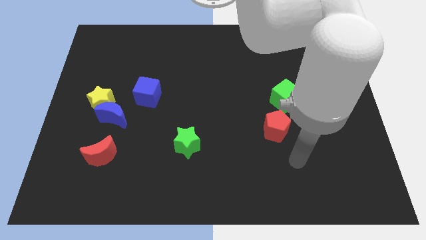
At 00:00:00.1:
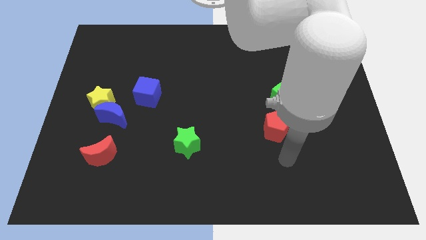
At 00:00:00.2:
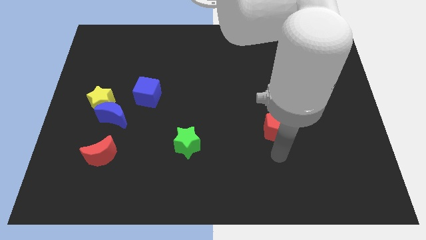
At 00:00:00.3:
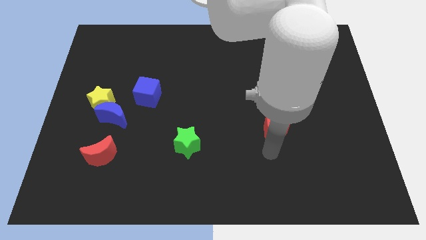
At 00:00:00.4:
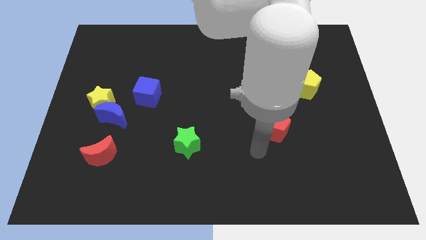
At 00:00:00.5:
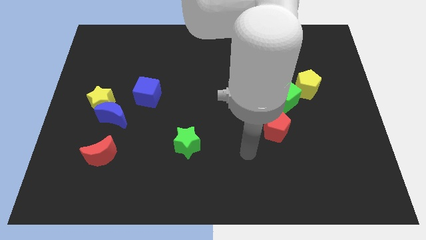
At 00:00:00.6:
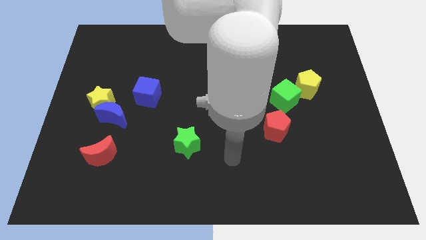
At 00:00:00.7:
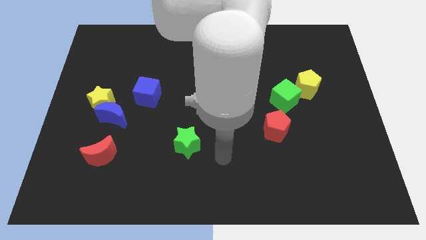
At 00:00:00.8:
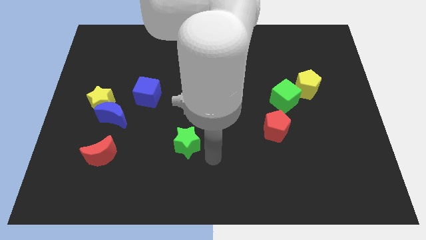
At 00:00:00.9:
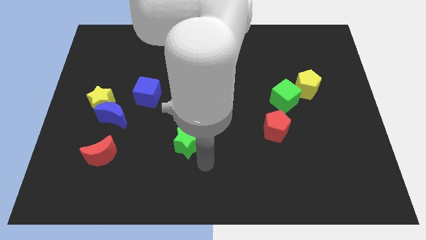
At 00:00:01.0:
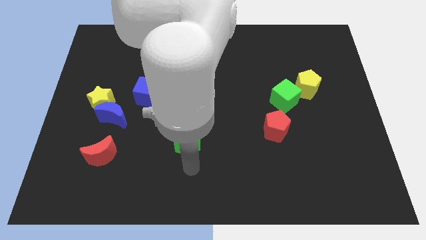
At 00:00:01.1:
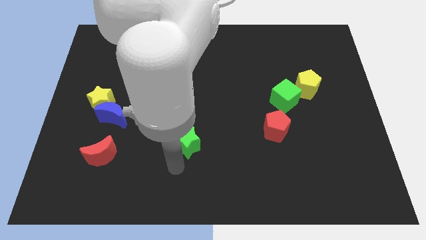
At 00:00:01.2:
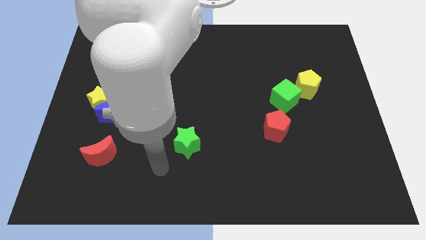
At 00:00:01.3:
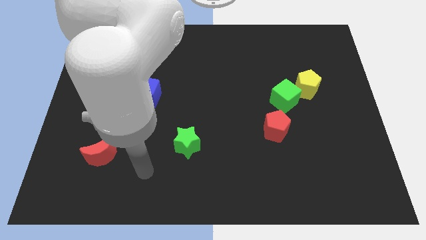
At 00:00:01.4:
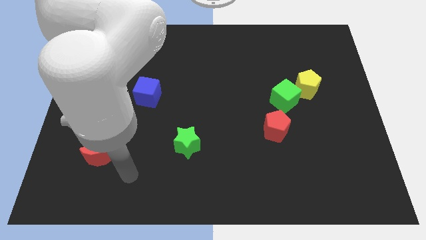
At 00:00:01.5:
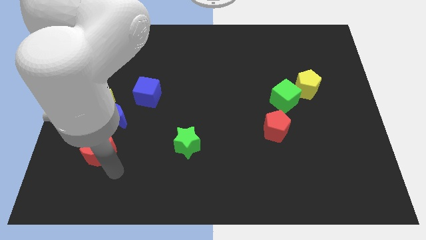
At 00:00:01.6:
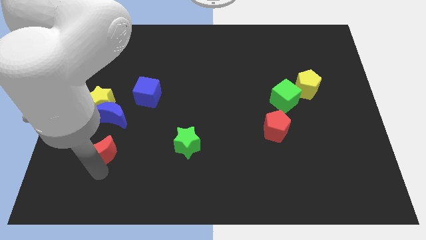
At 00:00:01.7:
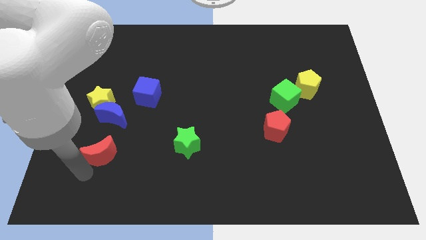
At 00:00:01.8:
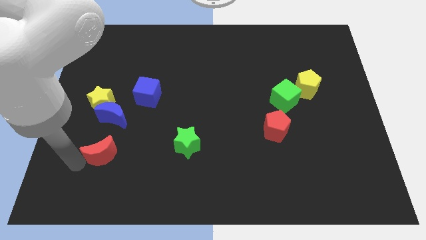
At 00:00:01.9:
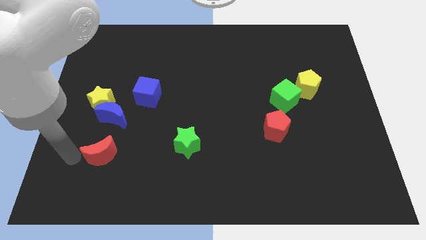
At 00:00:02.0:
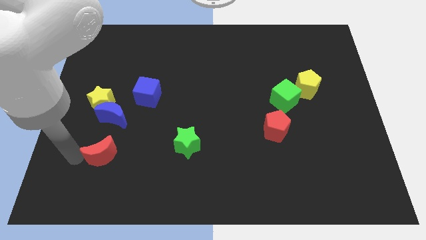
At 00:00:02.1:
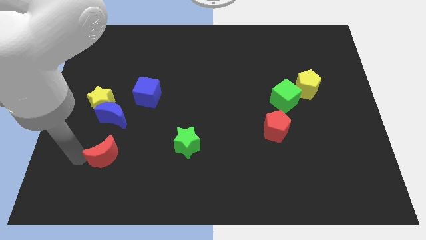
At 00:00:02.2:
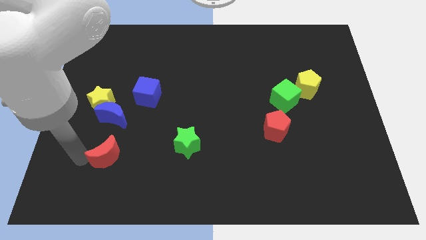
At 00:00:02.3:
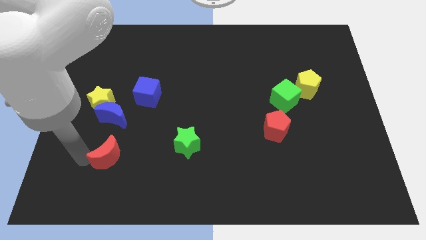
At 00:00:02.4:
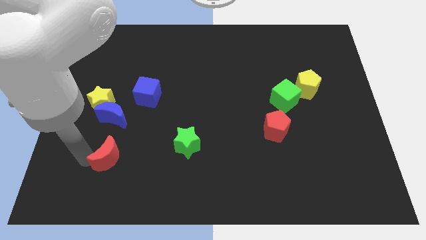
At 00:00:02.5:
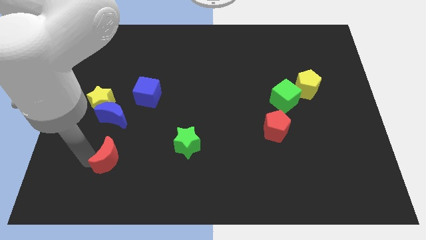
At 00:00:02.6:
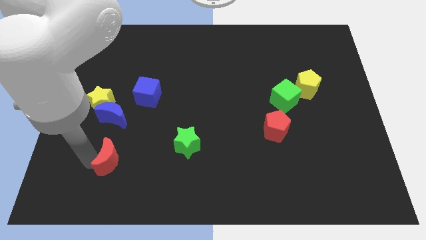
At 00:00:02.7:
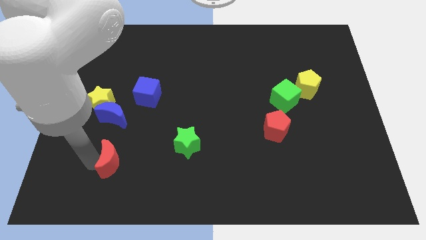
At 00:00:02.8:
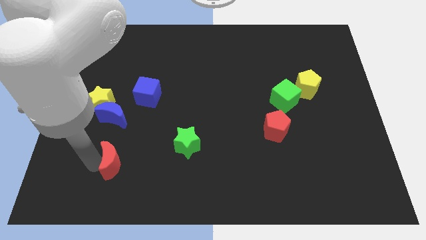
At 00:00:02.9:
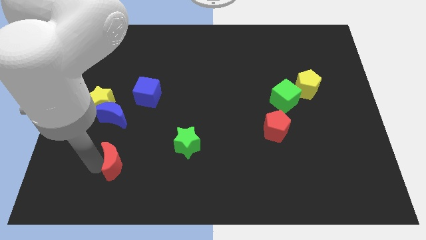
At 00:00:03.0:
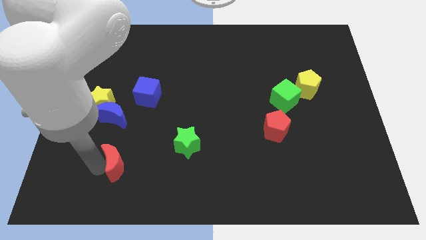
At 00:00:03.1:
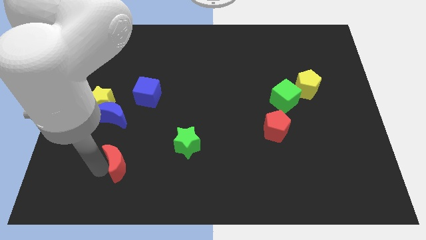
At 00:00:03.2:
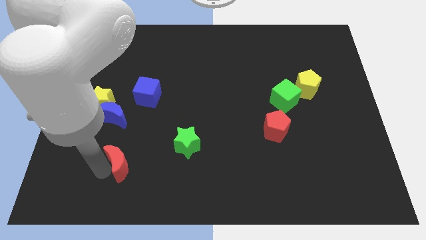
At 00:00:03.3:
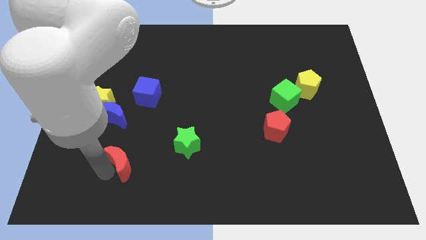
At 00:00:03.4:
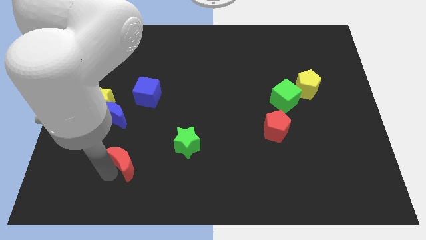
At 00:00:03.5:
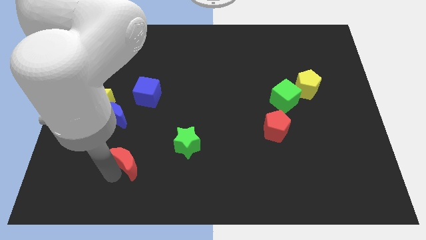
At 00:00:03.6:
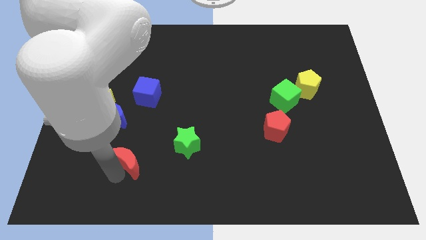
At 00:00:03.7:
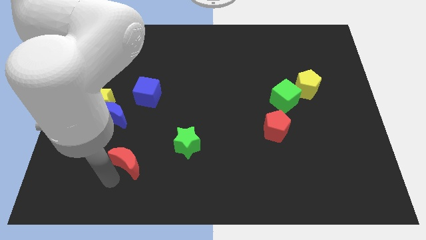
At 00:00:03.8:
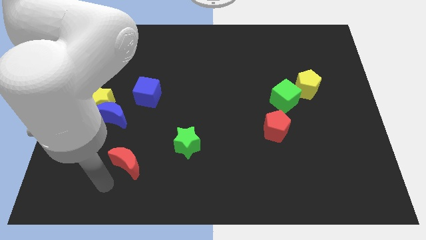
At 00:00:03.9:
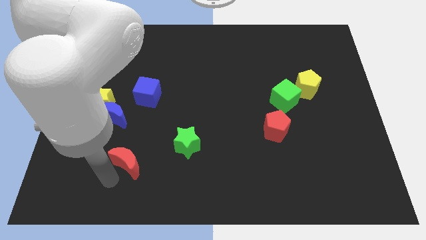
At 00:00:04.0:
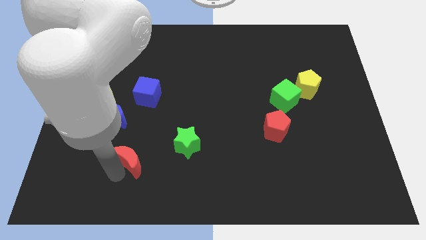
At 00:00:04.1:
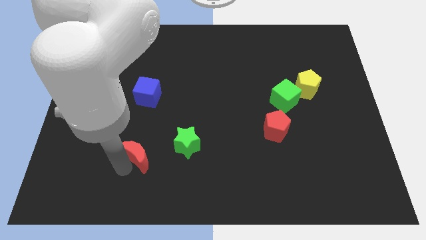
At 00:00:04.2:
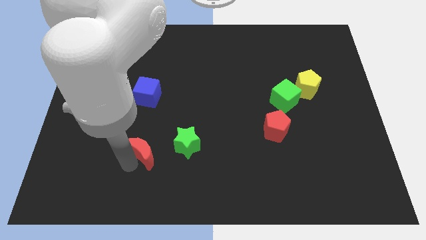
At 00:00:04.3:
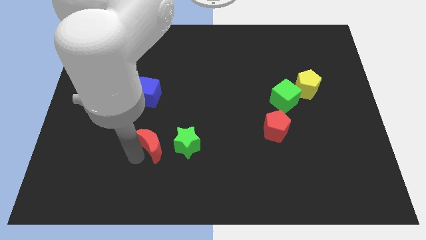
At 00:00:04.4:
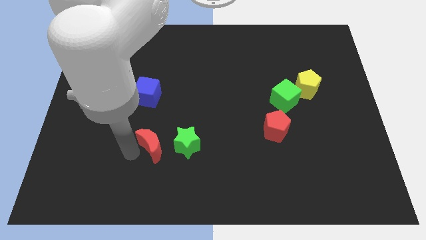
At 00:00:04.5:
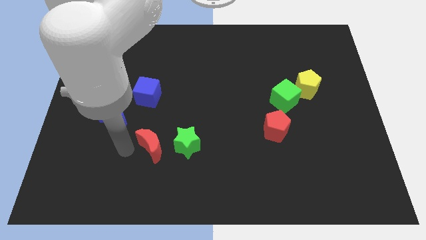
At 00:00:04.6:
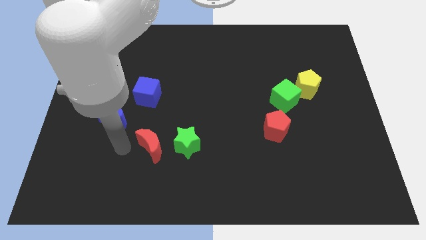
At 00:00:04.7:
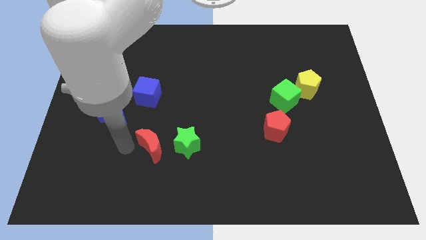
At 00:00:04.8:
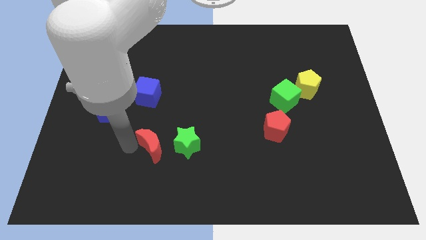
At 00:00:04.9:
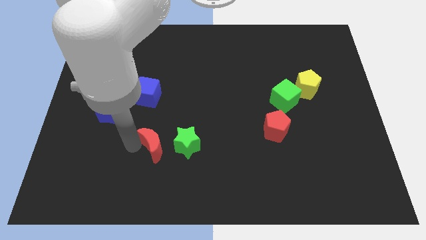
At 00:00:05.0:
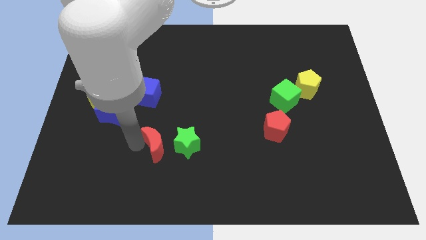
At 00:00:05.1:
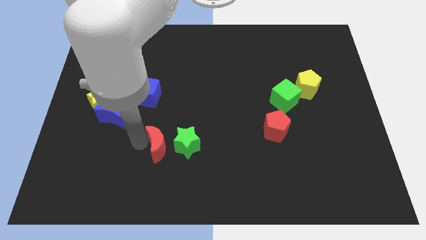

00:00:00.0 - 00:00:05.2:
slide the red moon next to the green star

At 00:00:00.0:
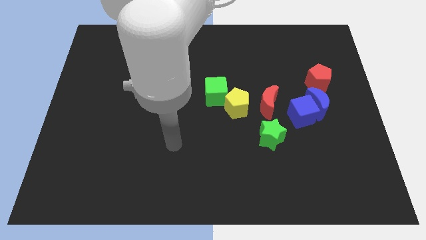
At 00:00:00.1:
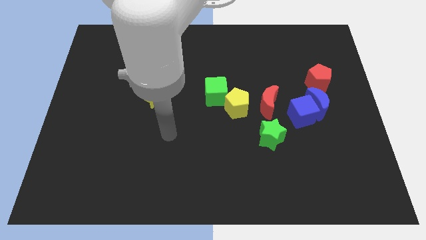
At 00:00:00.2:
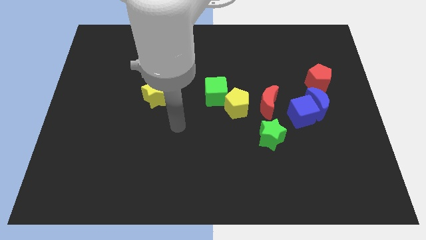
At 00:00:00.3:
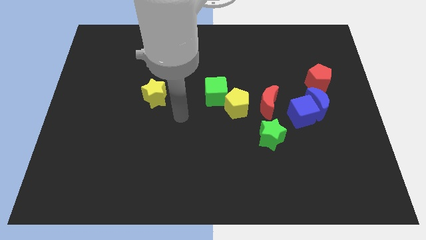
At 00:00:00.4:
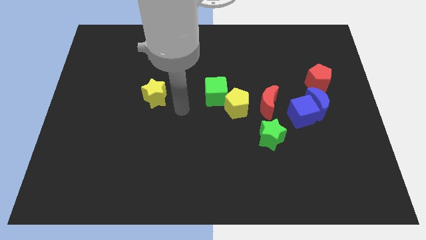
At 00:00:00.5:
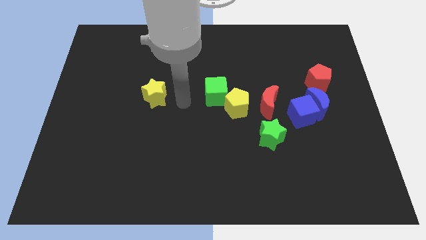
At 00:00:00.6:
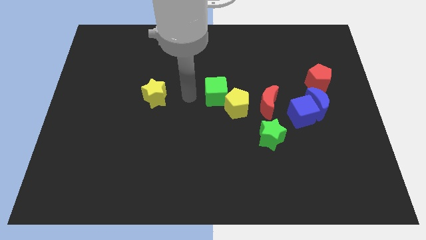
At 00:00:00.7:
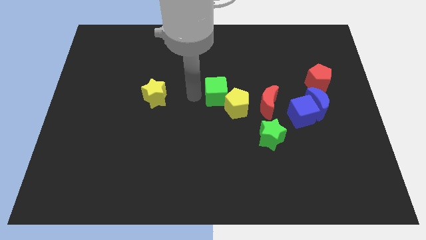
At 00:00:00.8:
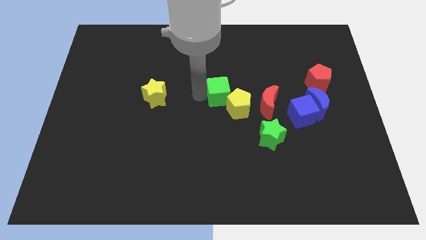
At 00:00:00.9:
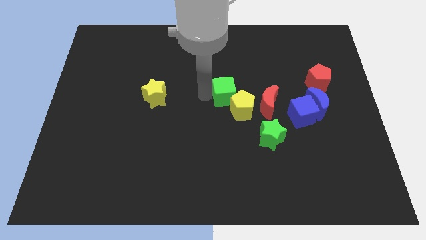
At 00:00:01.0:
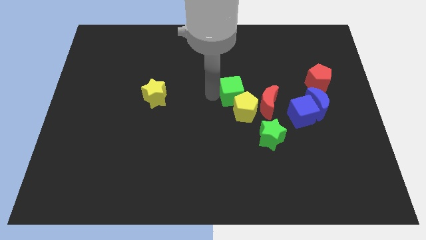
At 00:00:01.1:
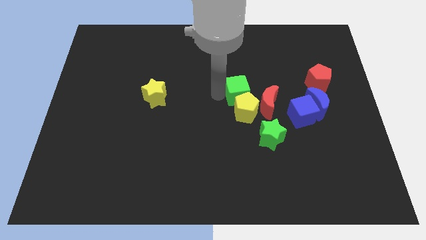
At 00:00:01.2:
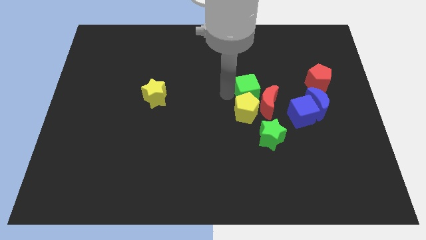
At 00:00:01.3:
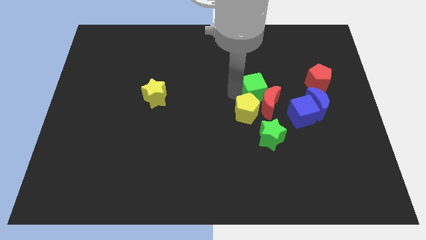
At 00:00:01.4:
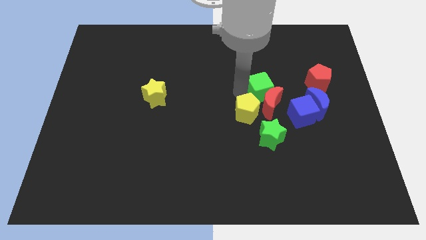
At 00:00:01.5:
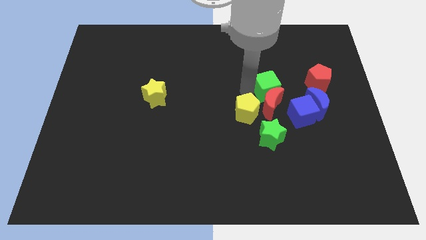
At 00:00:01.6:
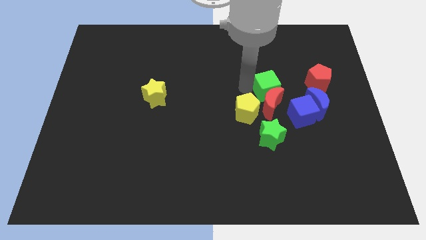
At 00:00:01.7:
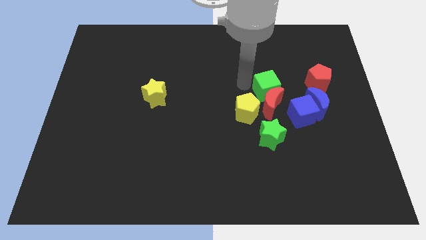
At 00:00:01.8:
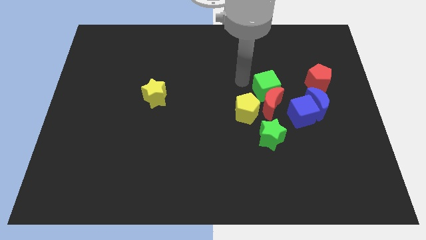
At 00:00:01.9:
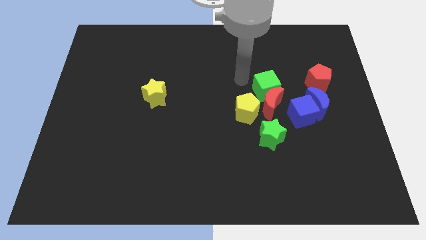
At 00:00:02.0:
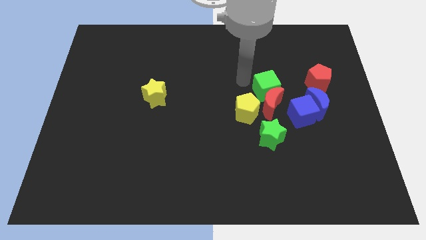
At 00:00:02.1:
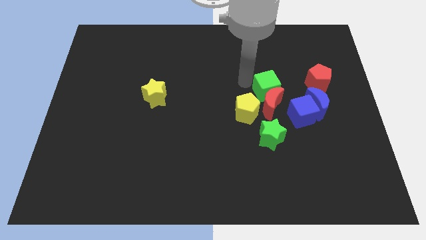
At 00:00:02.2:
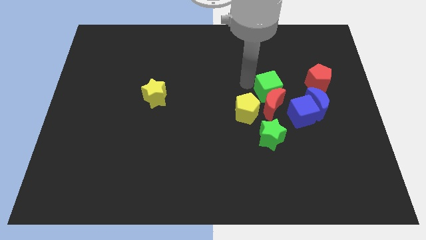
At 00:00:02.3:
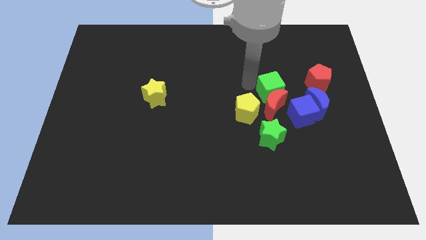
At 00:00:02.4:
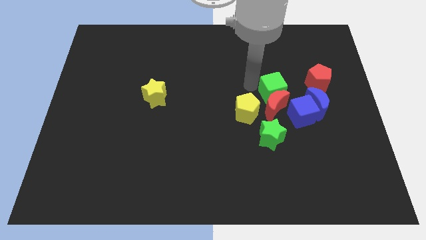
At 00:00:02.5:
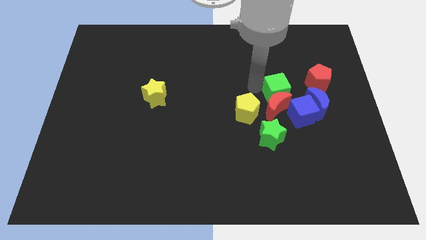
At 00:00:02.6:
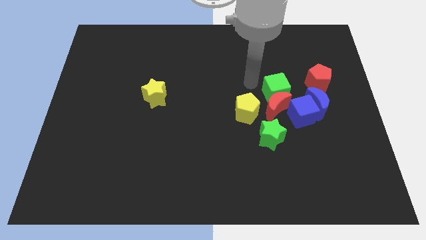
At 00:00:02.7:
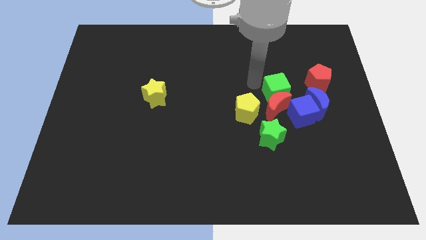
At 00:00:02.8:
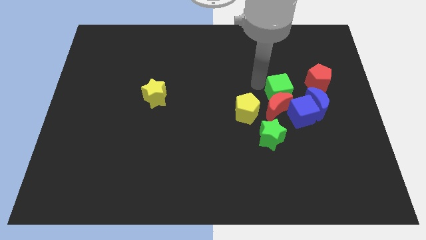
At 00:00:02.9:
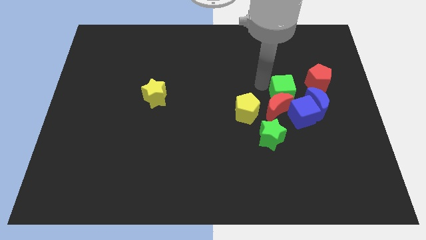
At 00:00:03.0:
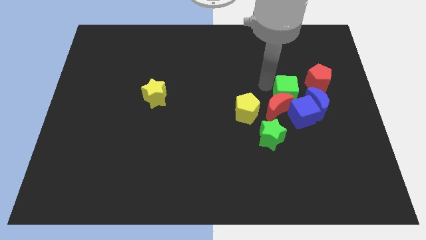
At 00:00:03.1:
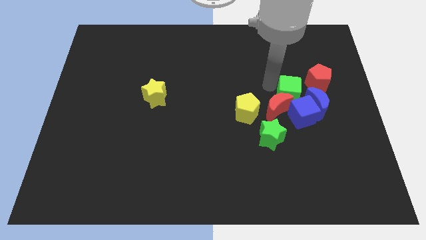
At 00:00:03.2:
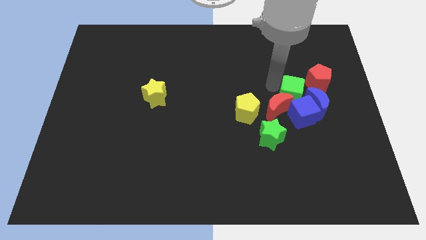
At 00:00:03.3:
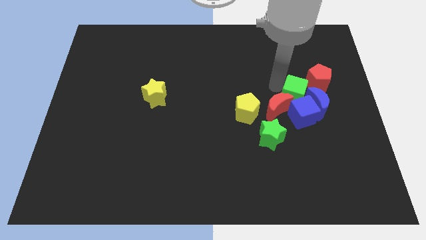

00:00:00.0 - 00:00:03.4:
put the green cube next to the blue moon
